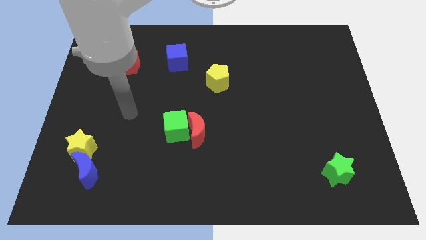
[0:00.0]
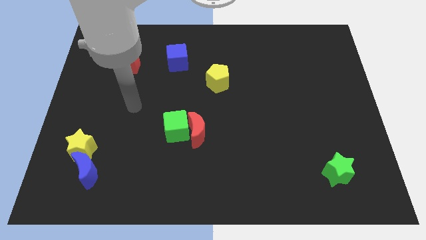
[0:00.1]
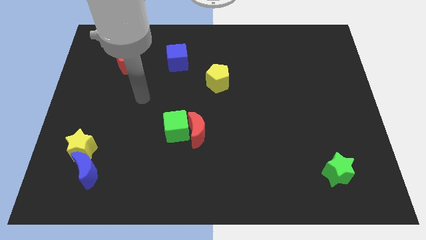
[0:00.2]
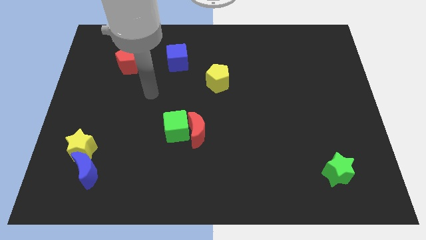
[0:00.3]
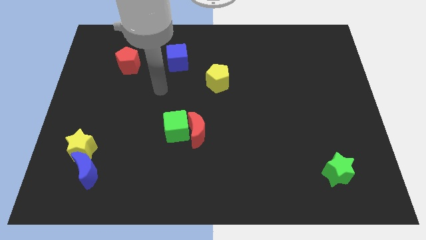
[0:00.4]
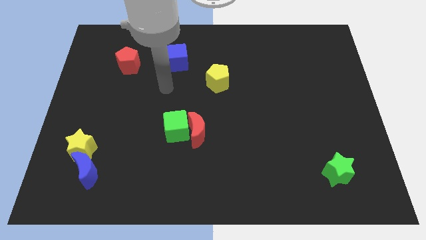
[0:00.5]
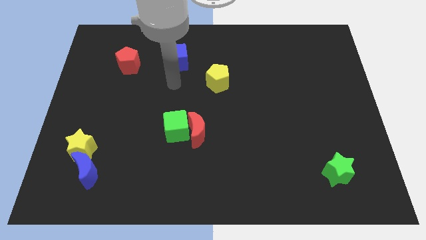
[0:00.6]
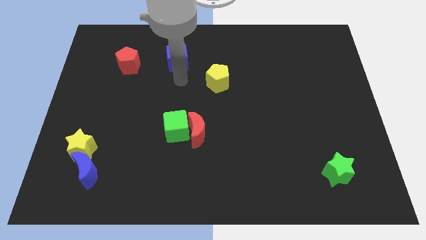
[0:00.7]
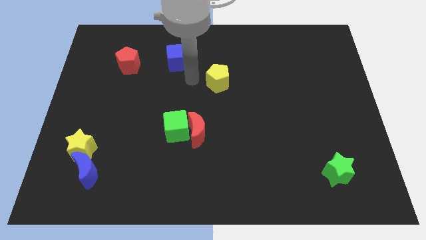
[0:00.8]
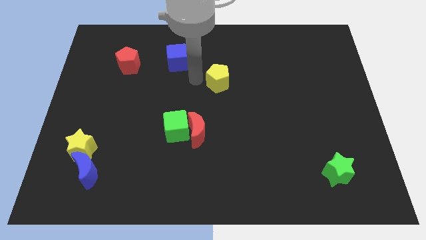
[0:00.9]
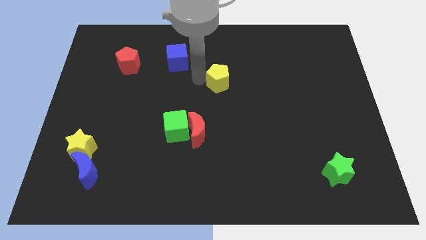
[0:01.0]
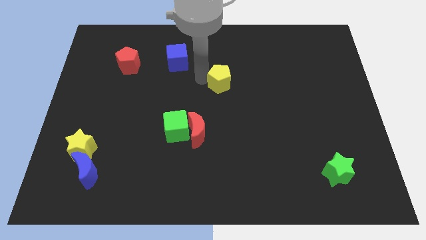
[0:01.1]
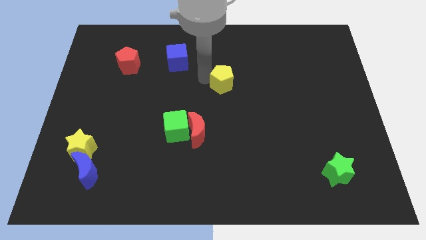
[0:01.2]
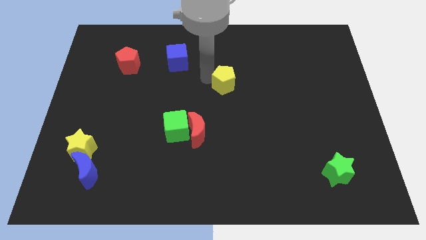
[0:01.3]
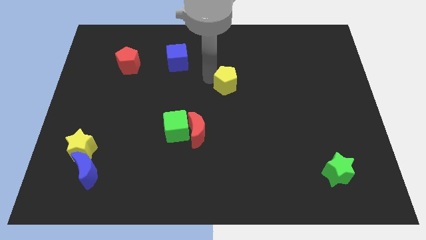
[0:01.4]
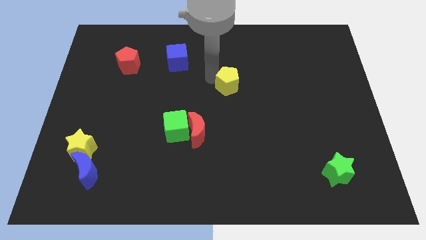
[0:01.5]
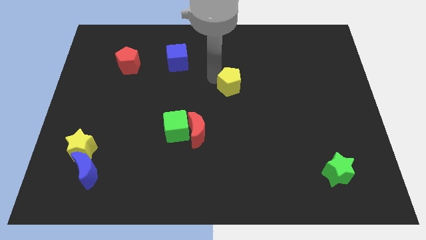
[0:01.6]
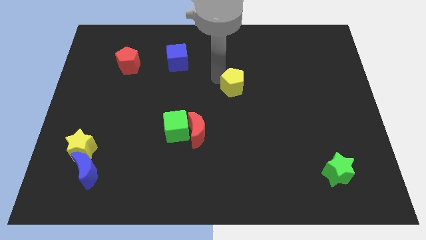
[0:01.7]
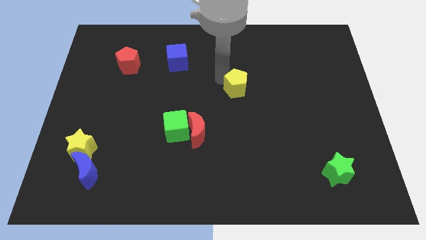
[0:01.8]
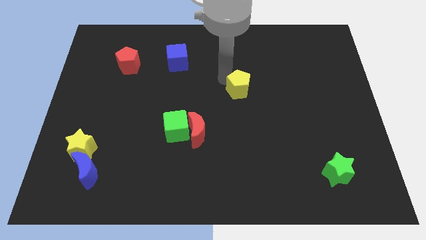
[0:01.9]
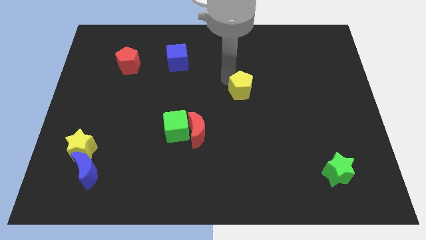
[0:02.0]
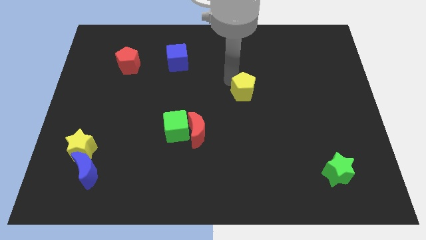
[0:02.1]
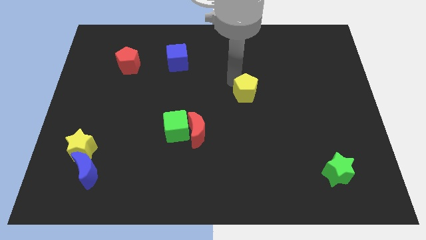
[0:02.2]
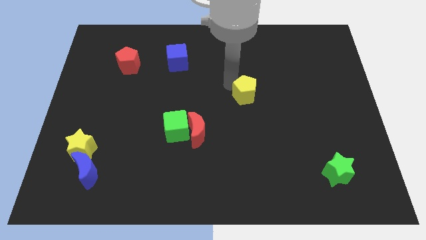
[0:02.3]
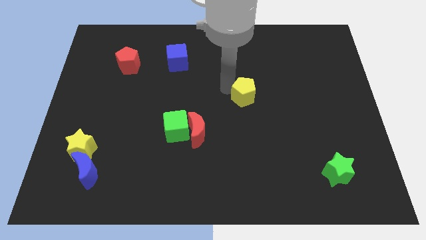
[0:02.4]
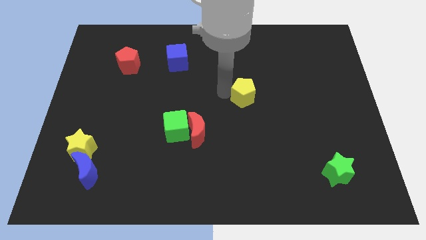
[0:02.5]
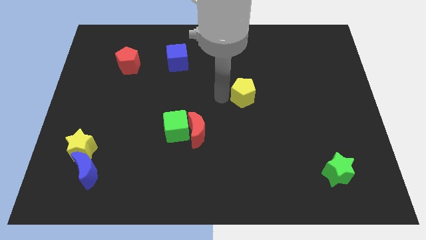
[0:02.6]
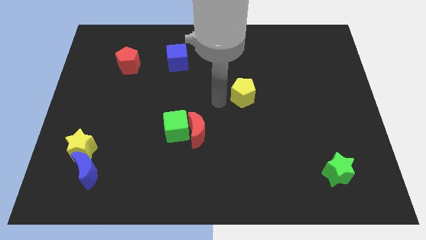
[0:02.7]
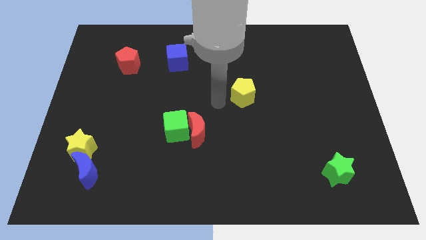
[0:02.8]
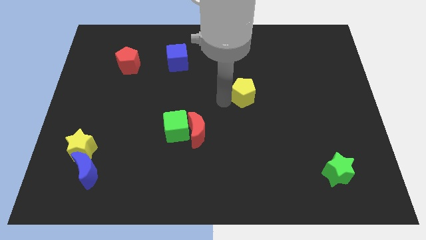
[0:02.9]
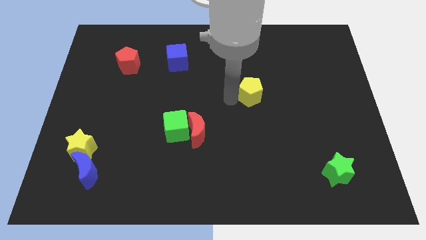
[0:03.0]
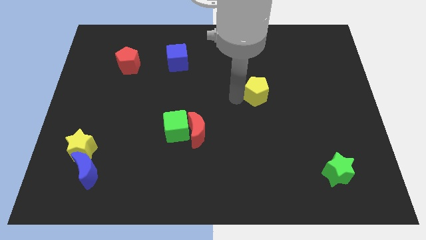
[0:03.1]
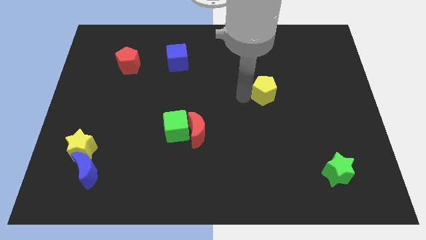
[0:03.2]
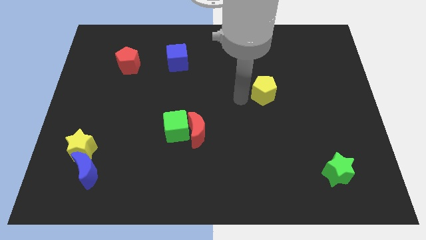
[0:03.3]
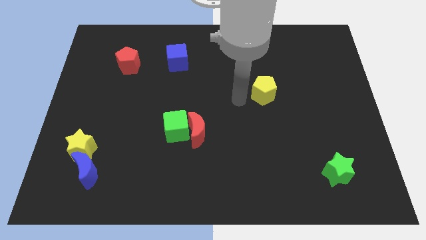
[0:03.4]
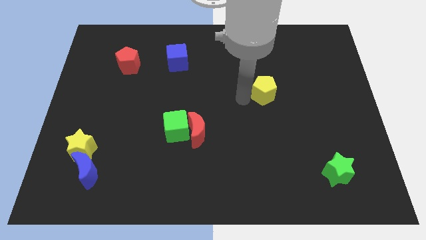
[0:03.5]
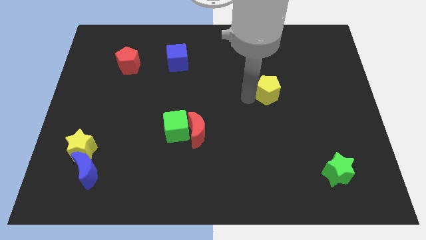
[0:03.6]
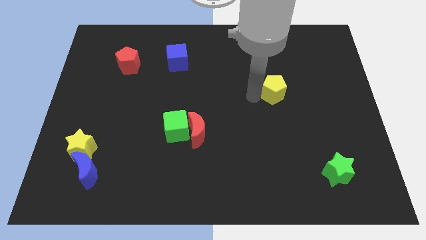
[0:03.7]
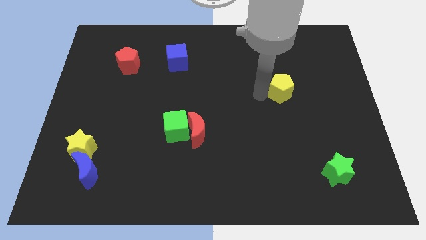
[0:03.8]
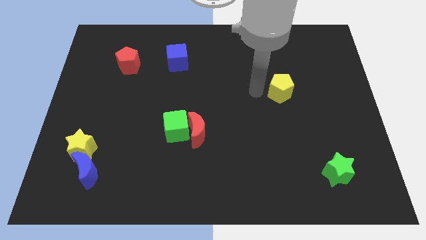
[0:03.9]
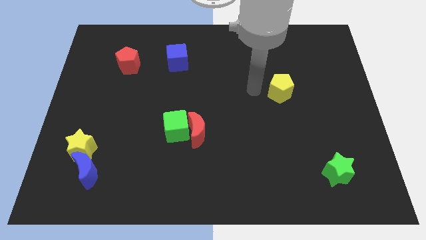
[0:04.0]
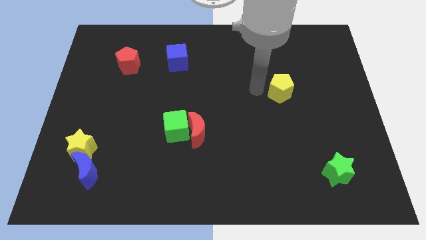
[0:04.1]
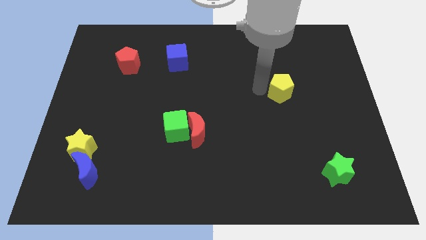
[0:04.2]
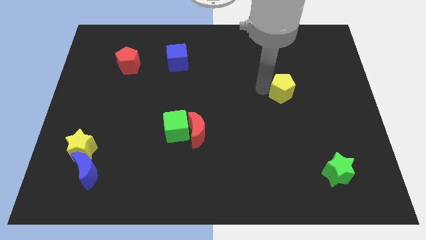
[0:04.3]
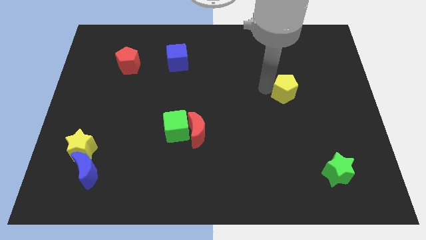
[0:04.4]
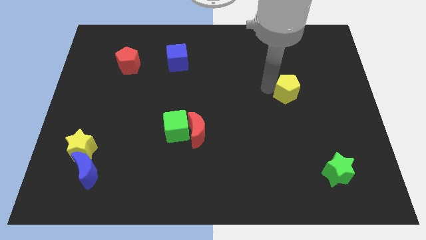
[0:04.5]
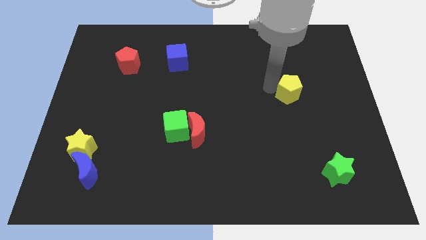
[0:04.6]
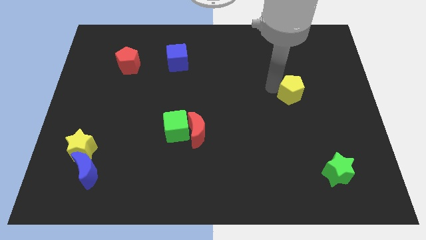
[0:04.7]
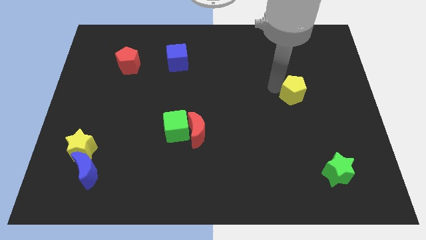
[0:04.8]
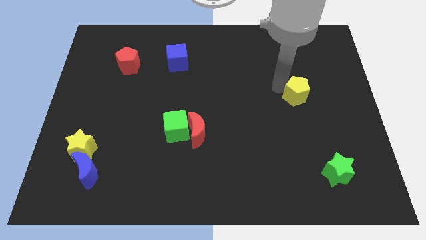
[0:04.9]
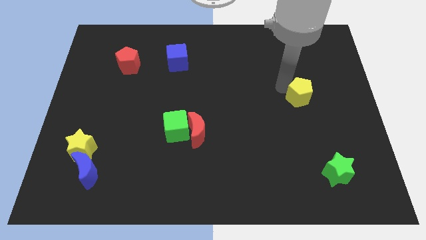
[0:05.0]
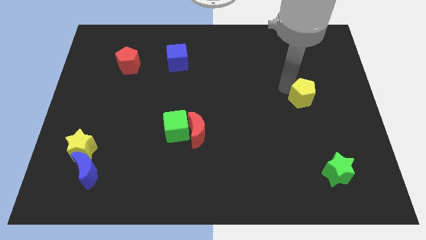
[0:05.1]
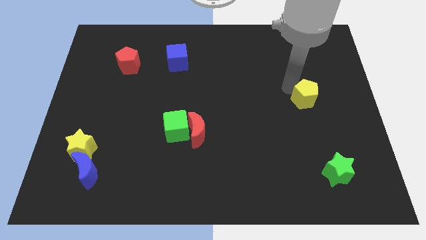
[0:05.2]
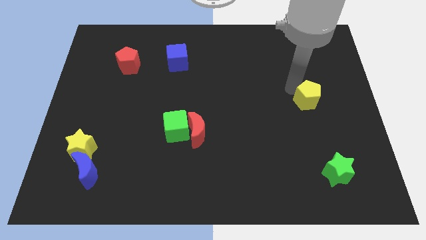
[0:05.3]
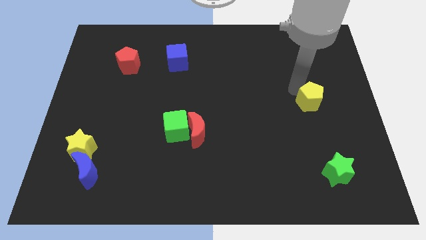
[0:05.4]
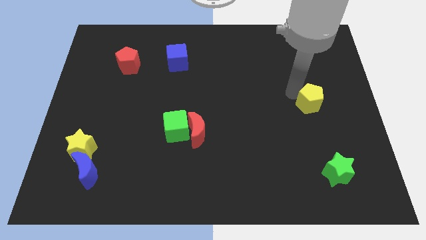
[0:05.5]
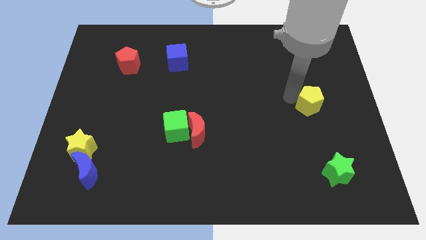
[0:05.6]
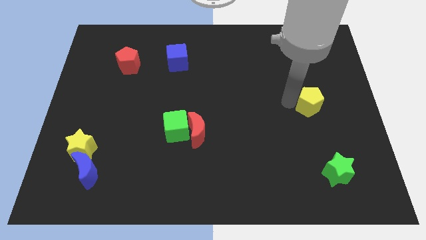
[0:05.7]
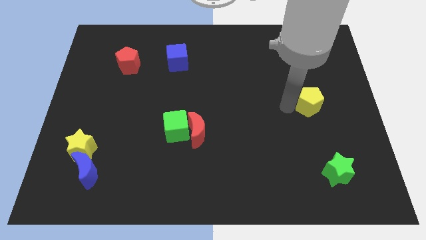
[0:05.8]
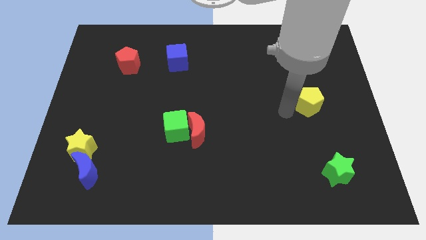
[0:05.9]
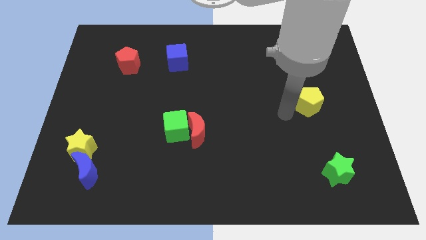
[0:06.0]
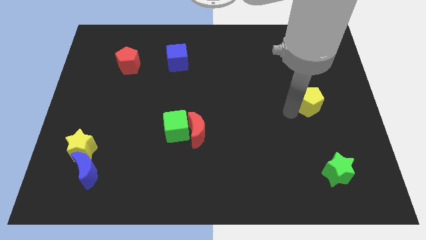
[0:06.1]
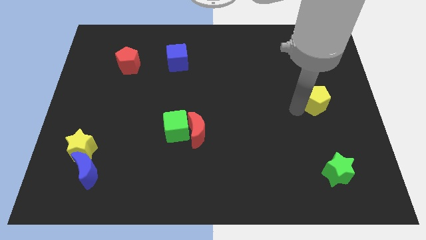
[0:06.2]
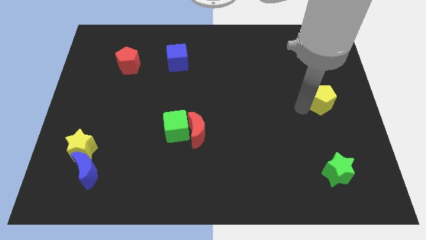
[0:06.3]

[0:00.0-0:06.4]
slide the yellow pentagon to the center right
